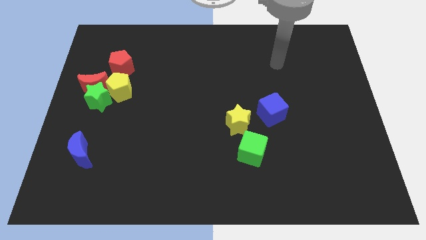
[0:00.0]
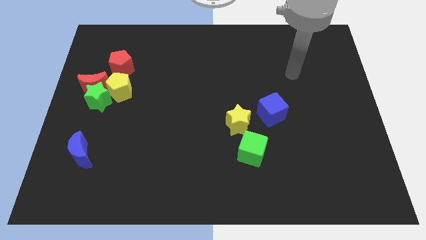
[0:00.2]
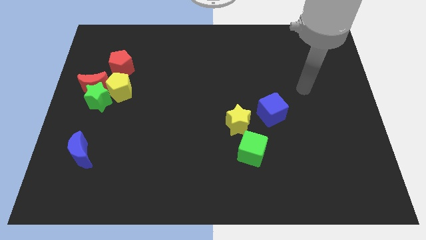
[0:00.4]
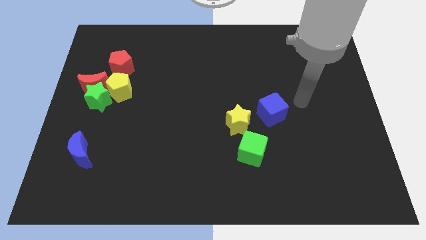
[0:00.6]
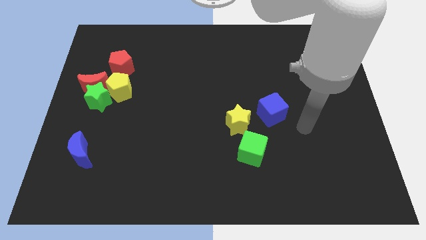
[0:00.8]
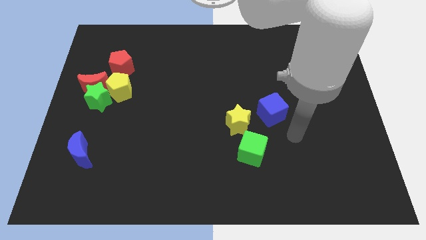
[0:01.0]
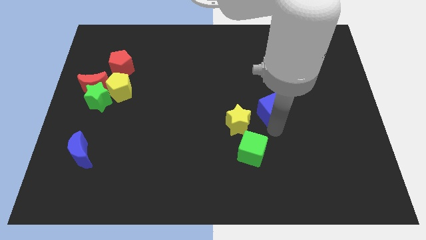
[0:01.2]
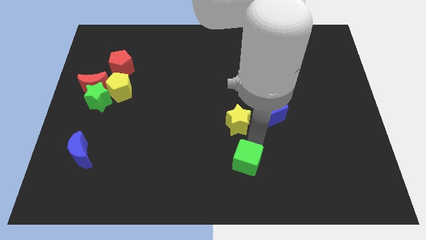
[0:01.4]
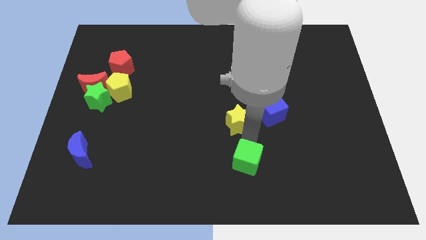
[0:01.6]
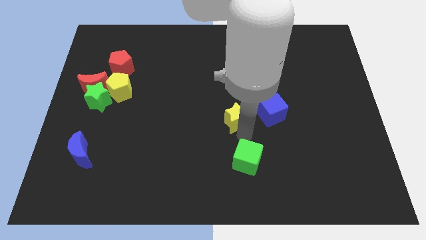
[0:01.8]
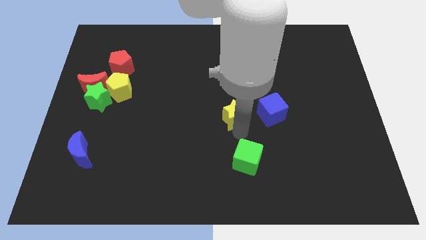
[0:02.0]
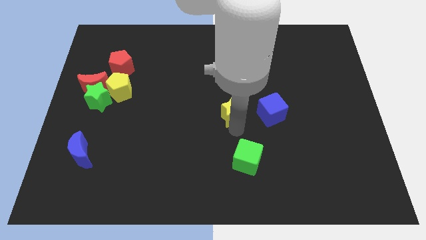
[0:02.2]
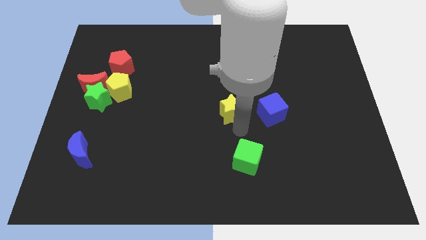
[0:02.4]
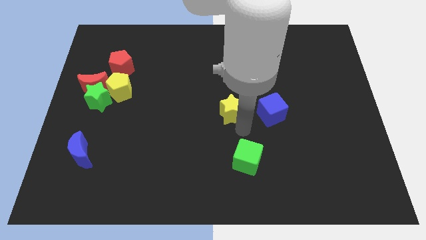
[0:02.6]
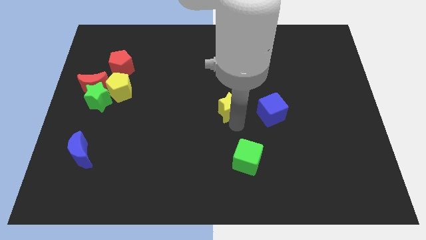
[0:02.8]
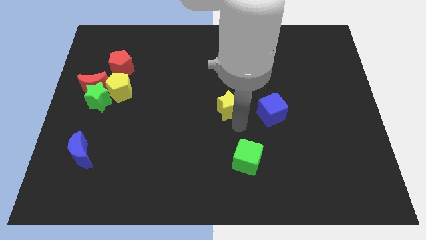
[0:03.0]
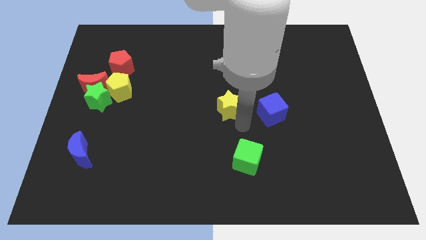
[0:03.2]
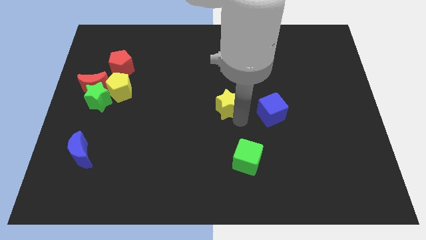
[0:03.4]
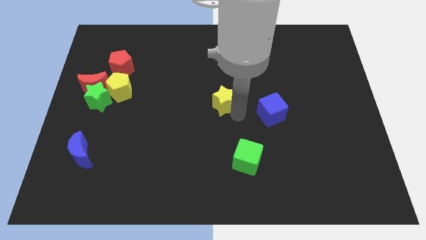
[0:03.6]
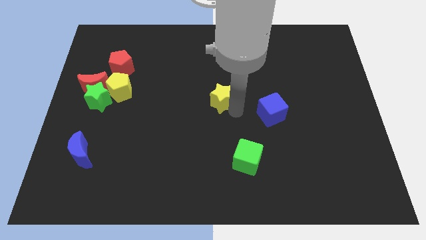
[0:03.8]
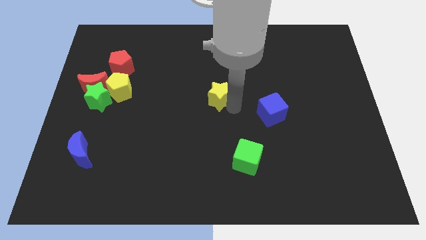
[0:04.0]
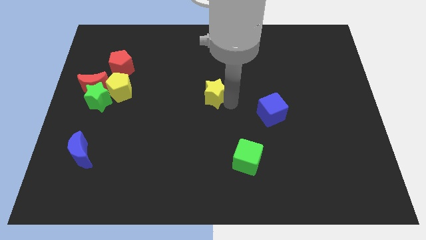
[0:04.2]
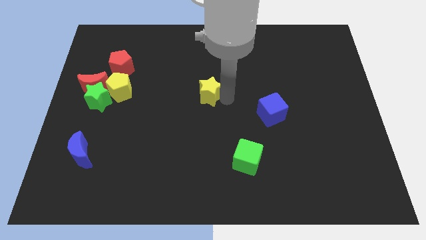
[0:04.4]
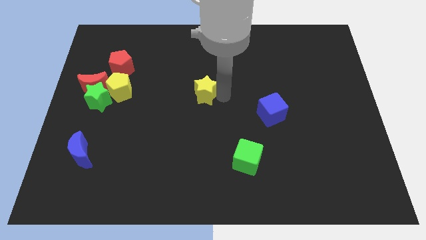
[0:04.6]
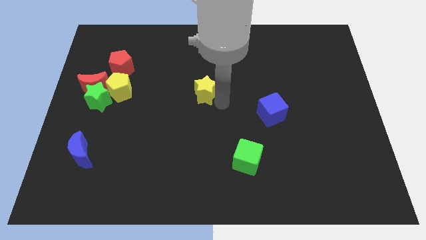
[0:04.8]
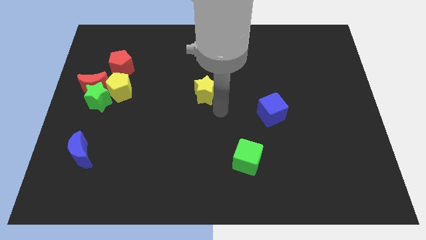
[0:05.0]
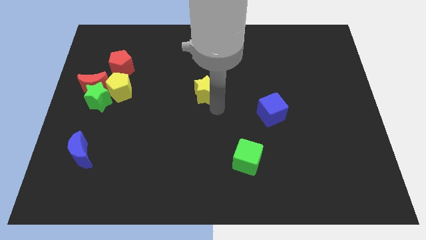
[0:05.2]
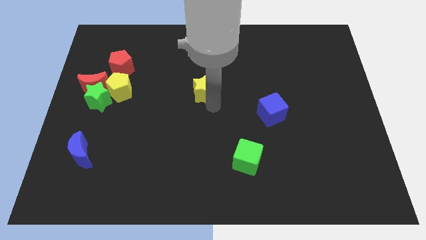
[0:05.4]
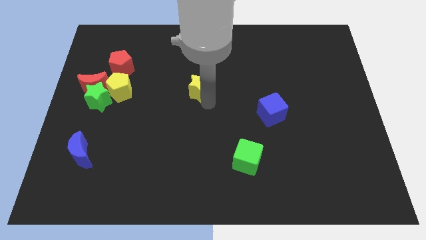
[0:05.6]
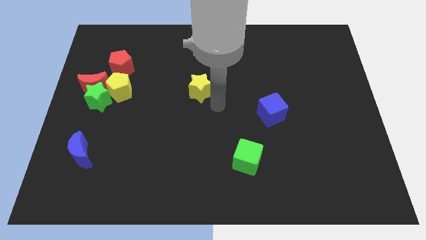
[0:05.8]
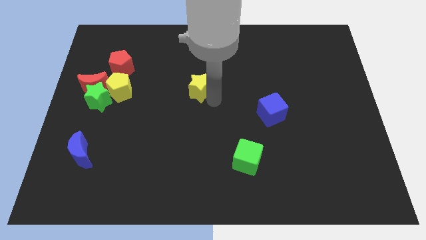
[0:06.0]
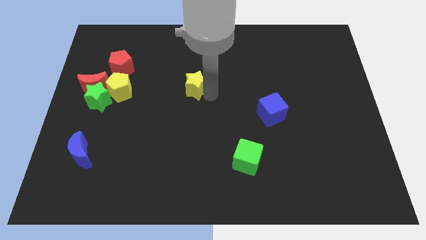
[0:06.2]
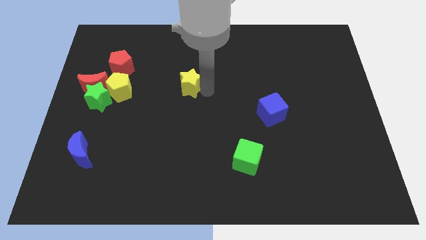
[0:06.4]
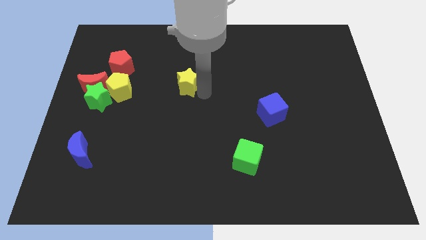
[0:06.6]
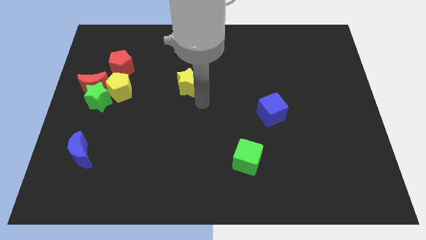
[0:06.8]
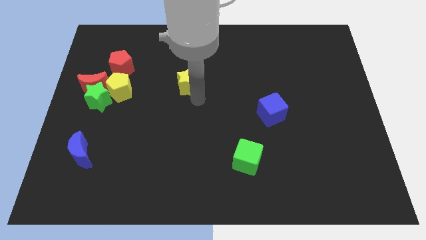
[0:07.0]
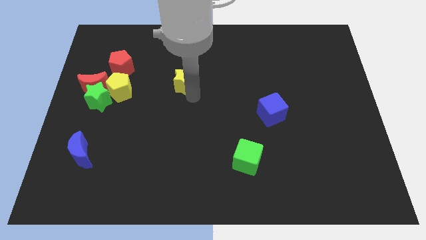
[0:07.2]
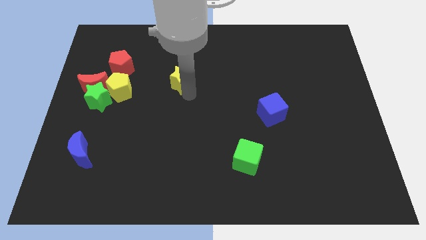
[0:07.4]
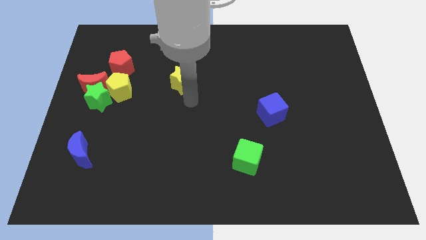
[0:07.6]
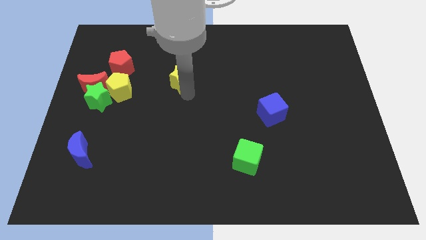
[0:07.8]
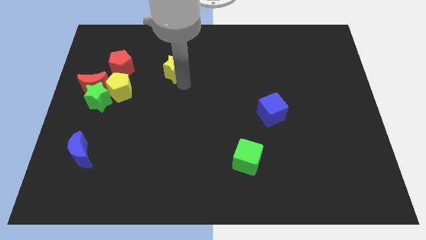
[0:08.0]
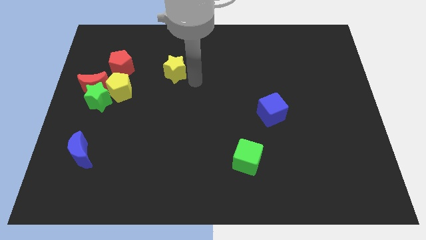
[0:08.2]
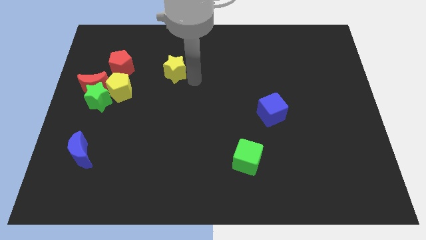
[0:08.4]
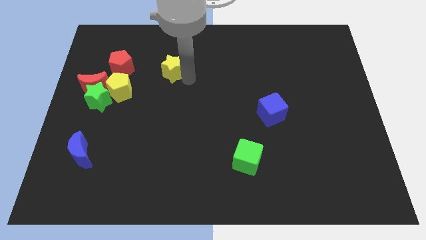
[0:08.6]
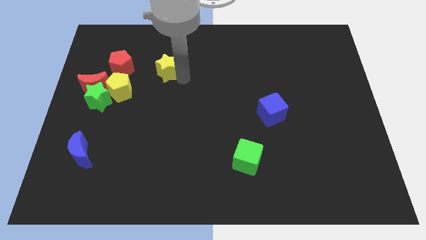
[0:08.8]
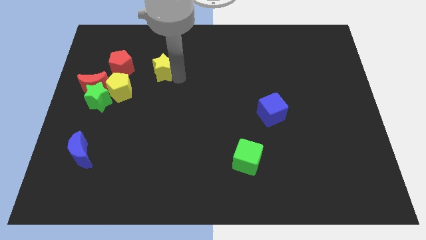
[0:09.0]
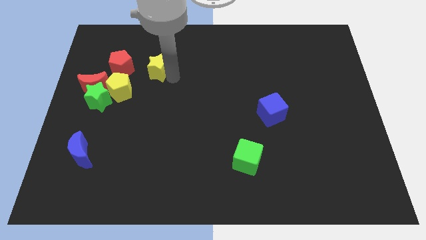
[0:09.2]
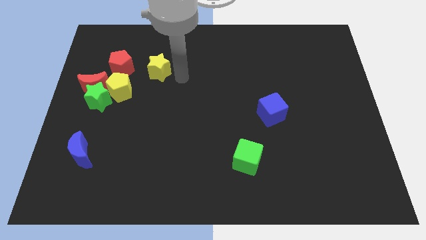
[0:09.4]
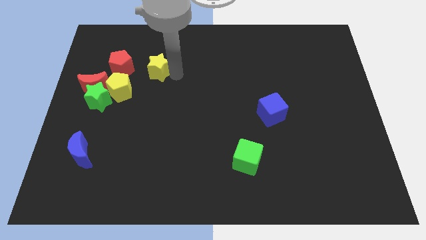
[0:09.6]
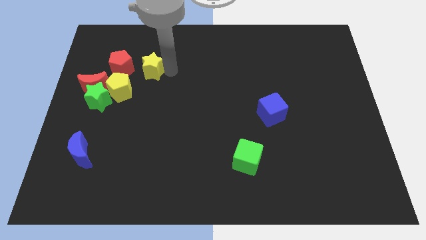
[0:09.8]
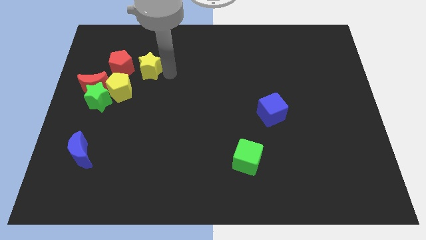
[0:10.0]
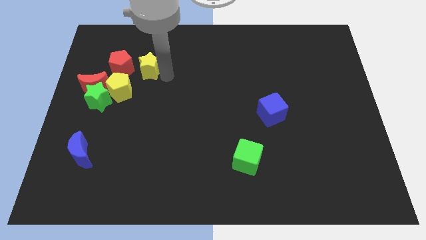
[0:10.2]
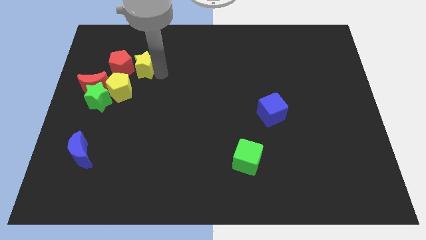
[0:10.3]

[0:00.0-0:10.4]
put the yellow star to the top side of the yellow pentagon

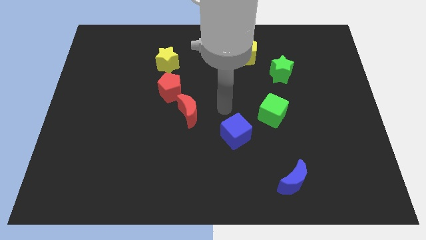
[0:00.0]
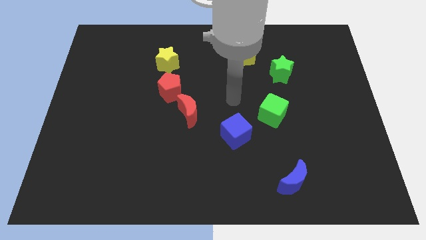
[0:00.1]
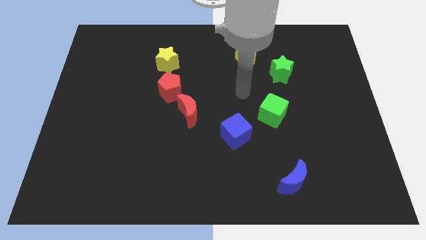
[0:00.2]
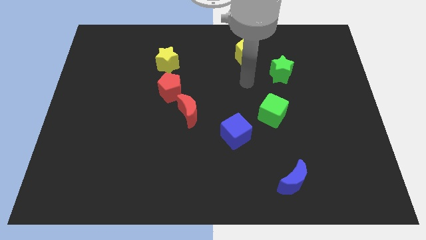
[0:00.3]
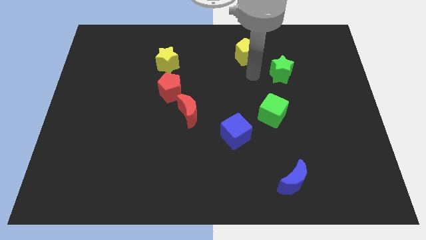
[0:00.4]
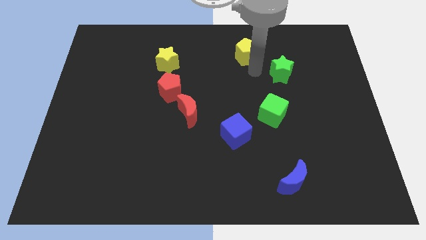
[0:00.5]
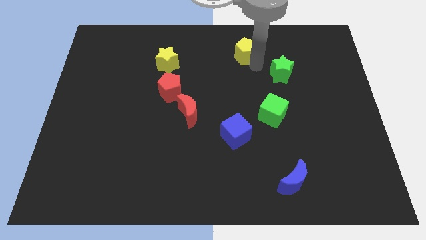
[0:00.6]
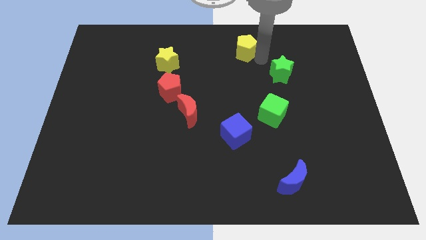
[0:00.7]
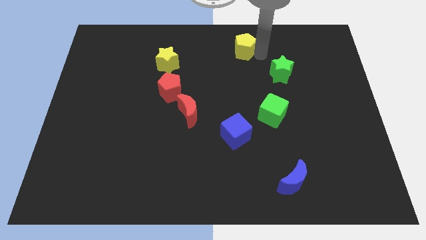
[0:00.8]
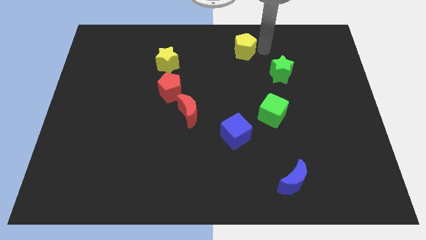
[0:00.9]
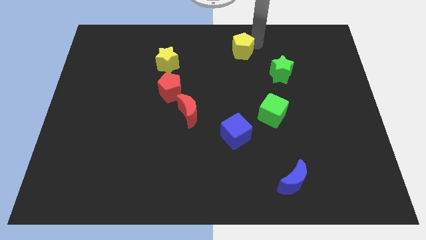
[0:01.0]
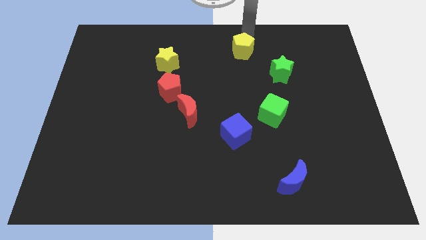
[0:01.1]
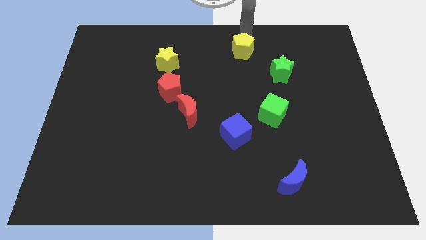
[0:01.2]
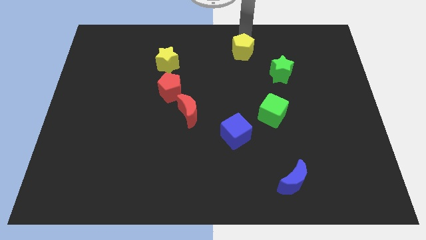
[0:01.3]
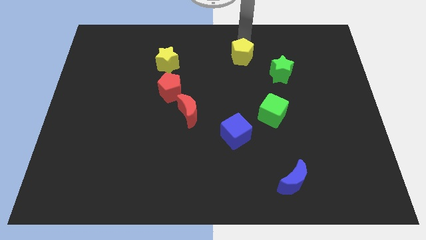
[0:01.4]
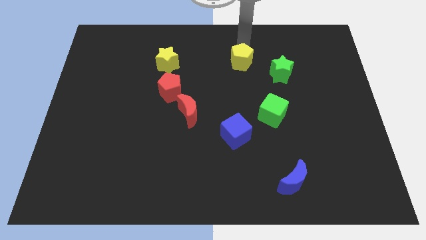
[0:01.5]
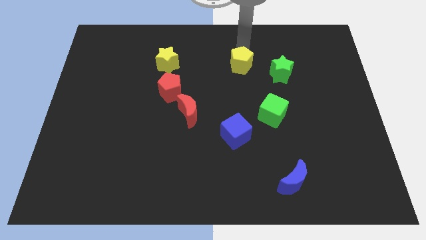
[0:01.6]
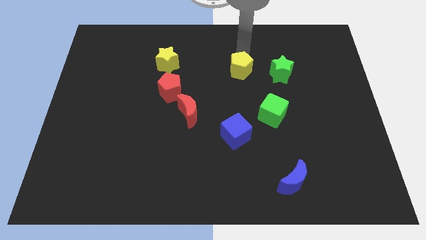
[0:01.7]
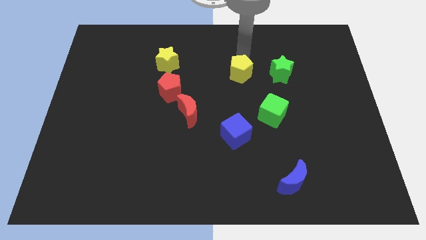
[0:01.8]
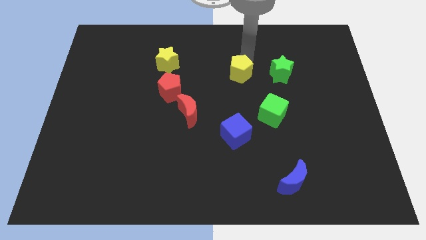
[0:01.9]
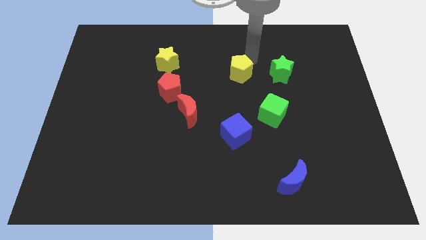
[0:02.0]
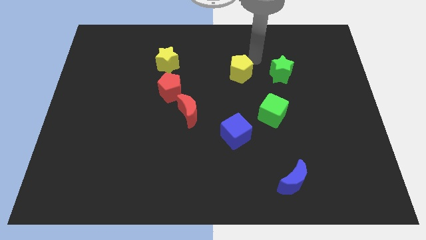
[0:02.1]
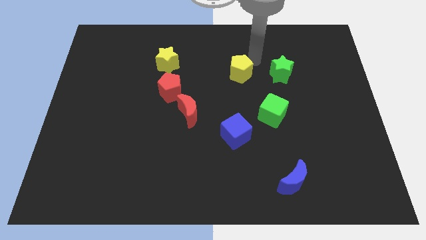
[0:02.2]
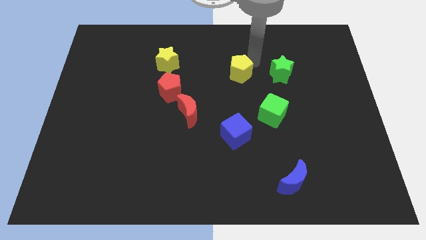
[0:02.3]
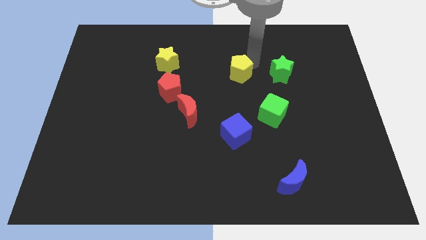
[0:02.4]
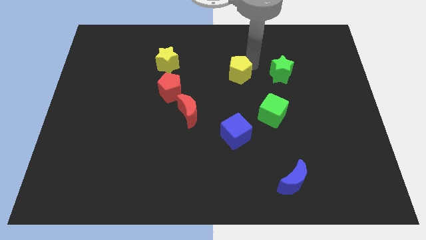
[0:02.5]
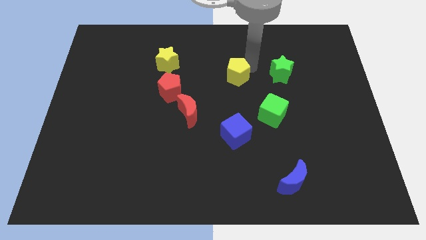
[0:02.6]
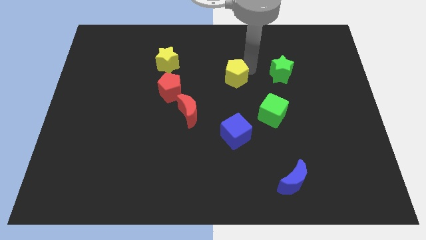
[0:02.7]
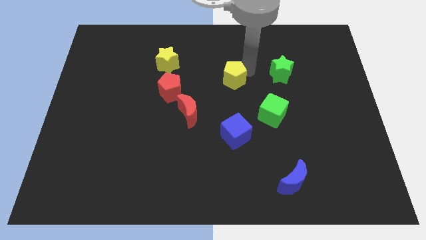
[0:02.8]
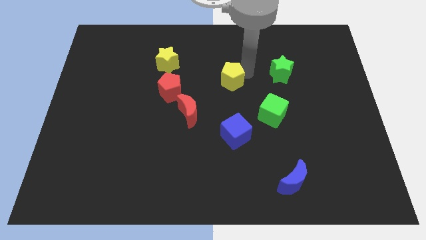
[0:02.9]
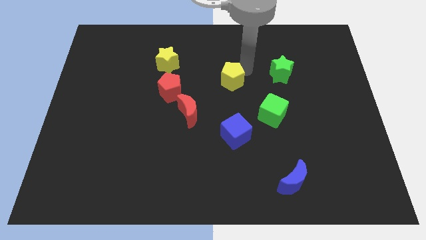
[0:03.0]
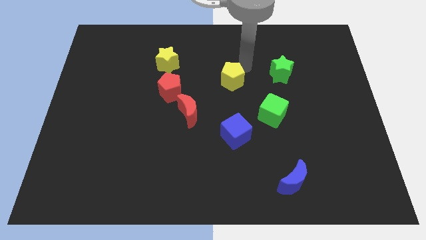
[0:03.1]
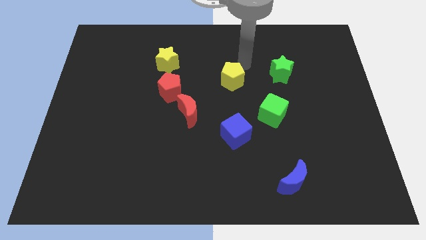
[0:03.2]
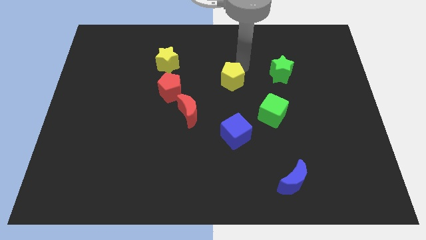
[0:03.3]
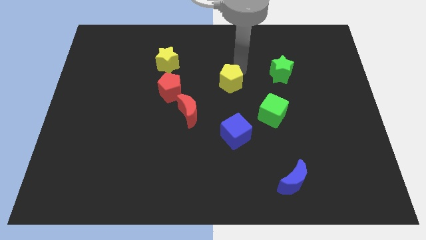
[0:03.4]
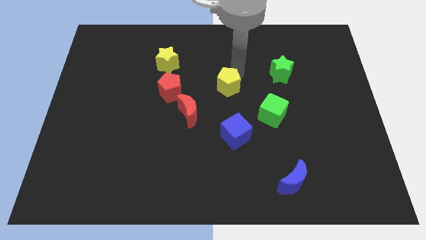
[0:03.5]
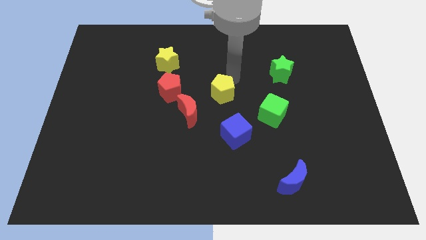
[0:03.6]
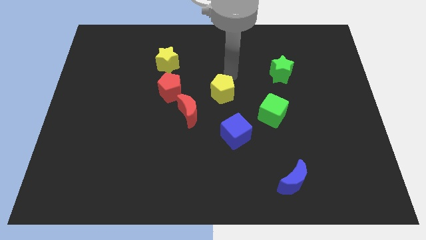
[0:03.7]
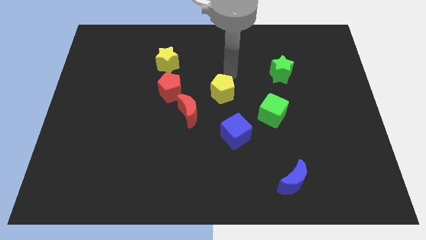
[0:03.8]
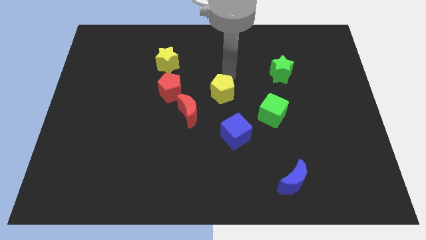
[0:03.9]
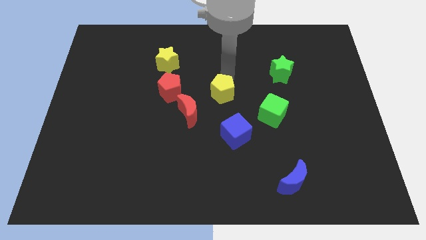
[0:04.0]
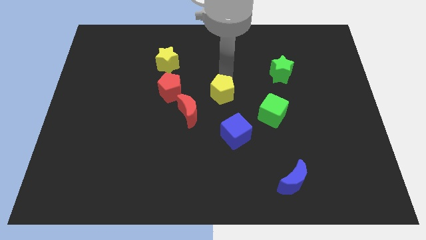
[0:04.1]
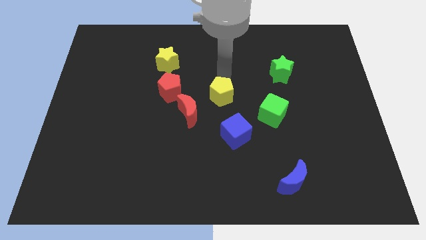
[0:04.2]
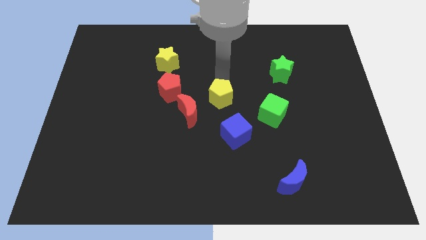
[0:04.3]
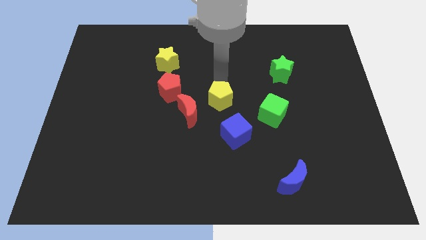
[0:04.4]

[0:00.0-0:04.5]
push the yellow pentagon diagonally up and to the left of the blue cube
